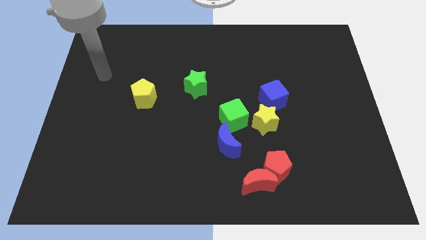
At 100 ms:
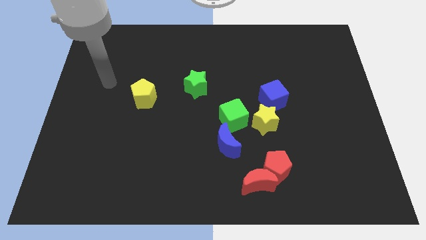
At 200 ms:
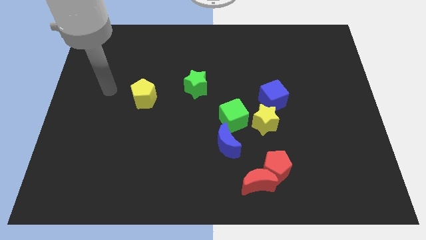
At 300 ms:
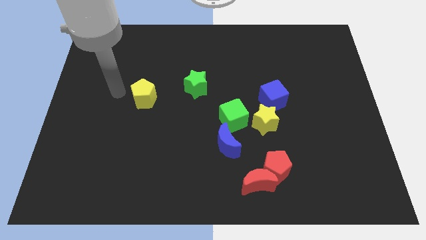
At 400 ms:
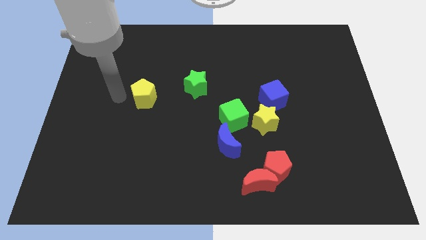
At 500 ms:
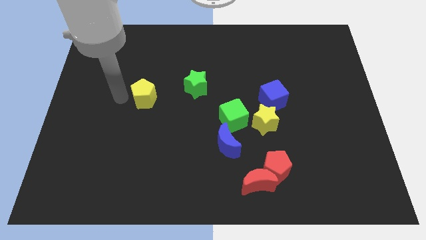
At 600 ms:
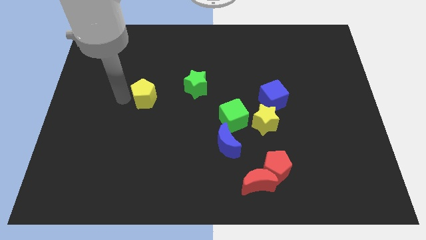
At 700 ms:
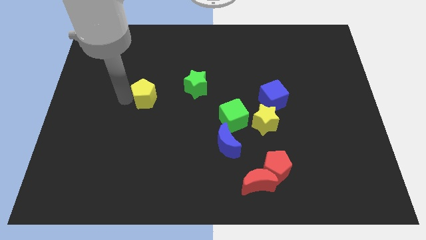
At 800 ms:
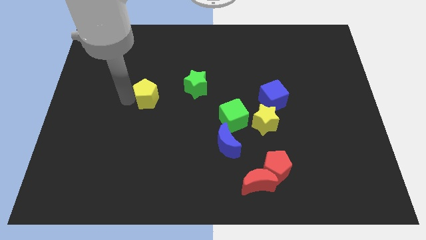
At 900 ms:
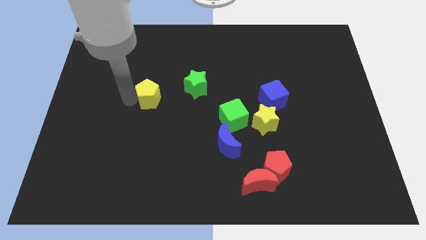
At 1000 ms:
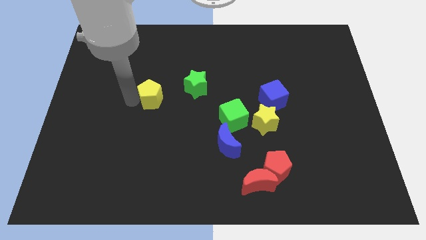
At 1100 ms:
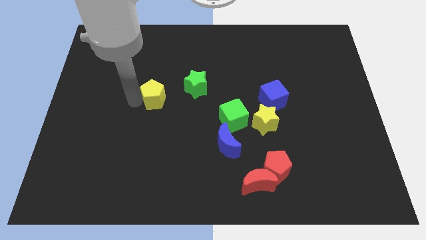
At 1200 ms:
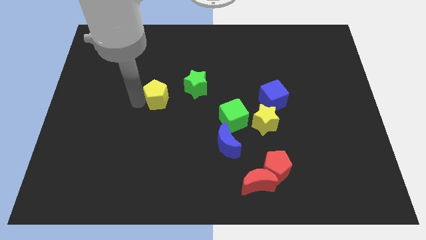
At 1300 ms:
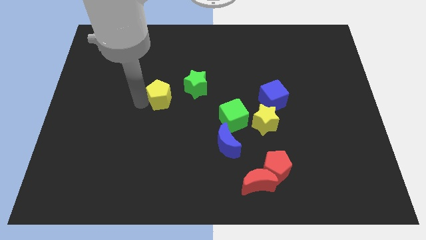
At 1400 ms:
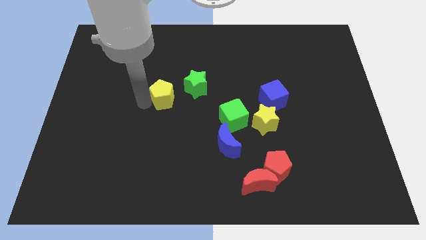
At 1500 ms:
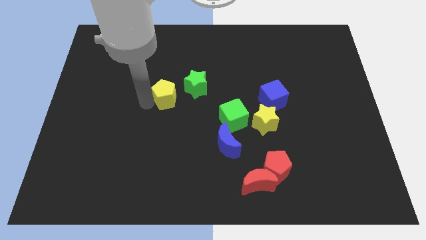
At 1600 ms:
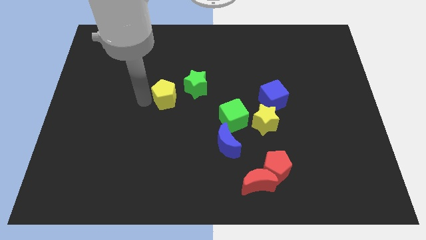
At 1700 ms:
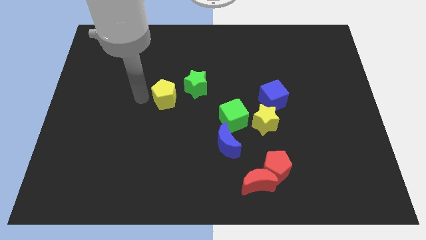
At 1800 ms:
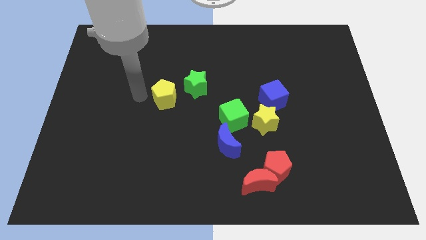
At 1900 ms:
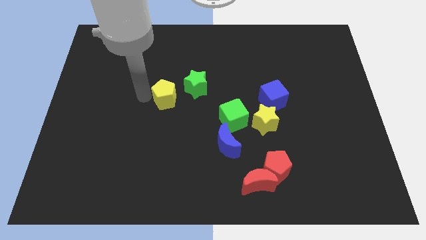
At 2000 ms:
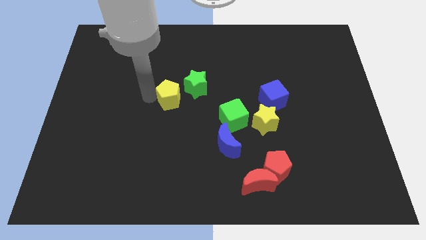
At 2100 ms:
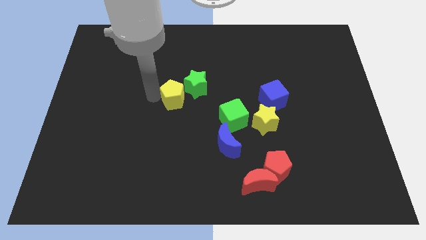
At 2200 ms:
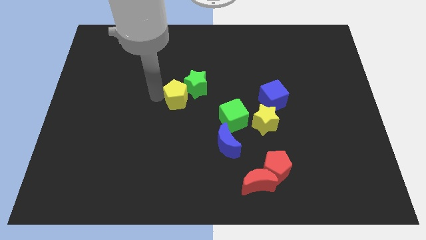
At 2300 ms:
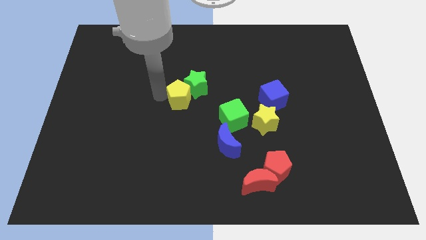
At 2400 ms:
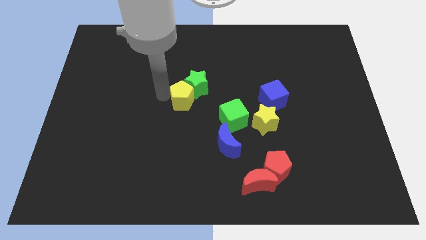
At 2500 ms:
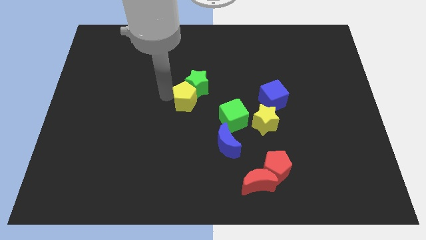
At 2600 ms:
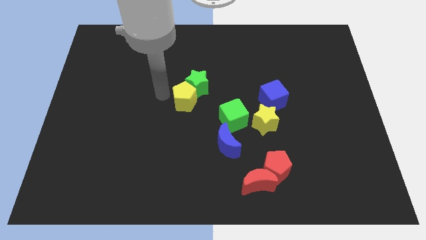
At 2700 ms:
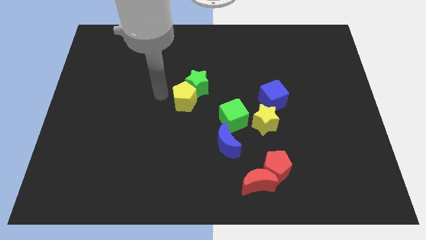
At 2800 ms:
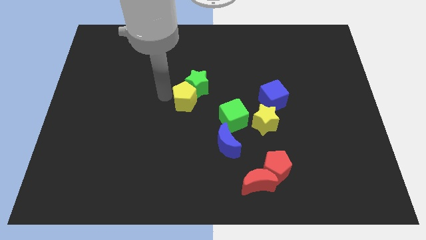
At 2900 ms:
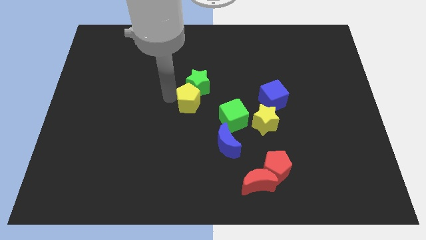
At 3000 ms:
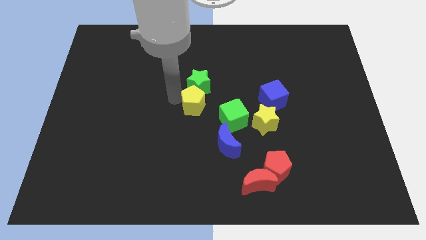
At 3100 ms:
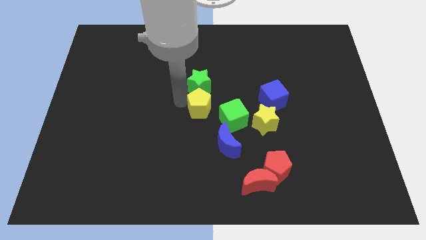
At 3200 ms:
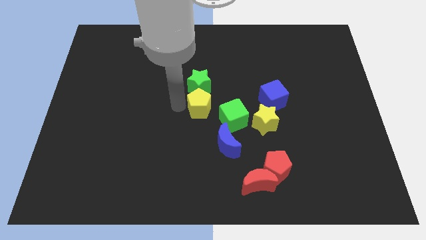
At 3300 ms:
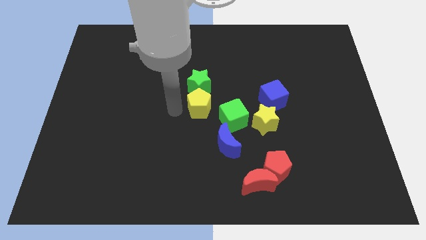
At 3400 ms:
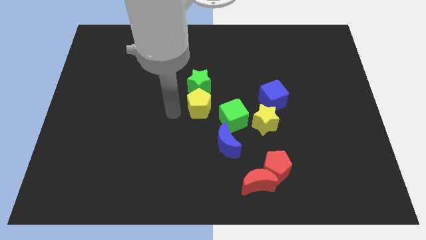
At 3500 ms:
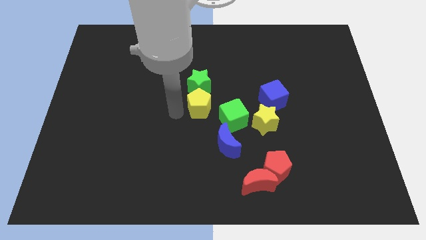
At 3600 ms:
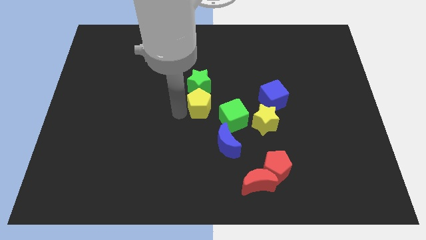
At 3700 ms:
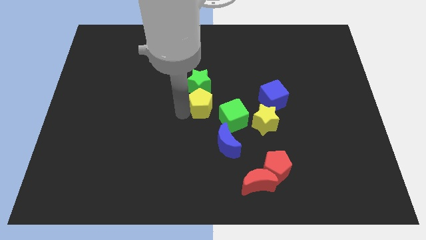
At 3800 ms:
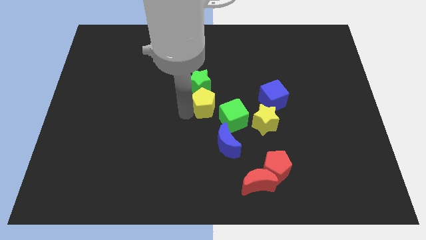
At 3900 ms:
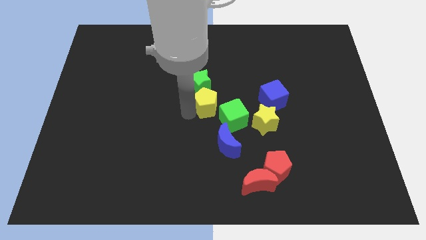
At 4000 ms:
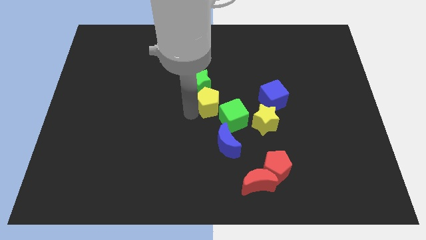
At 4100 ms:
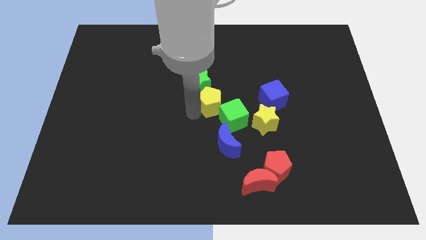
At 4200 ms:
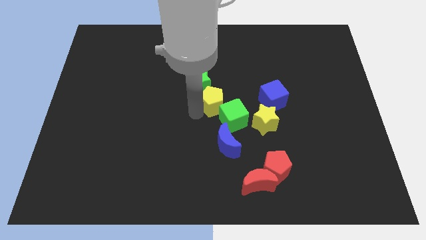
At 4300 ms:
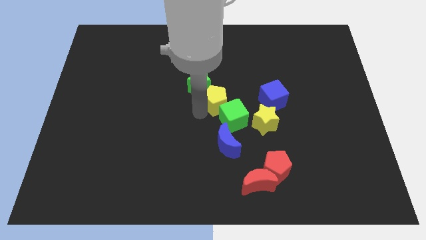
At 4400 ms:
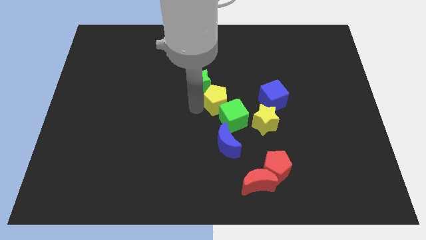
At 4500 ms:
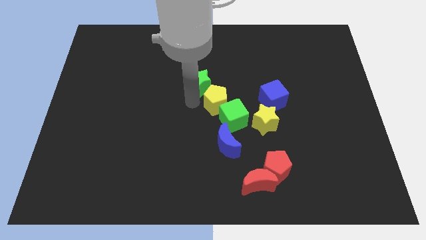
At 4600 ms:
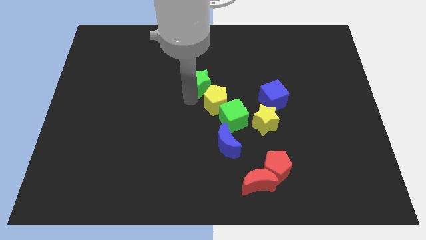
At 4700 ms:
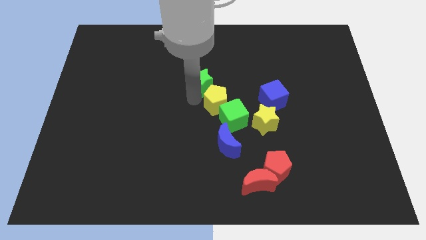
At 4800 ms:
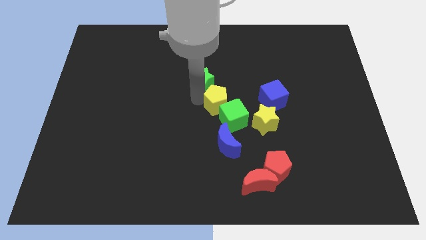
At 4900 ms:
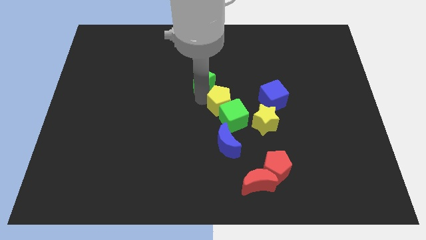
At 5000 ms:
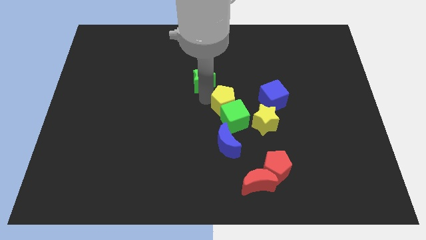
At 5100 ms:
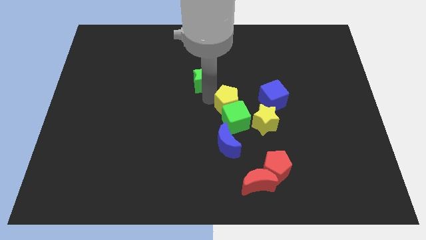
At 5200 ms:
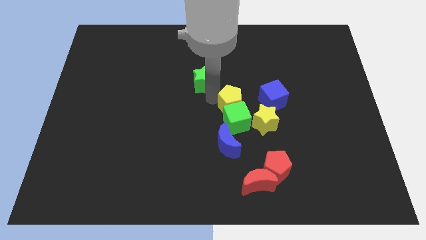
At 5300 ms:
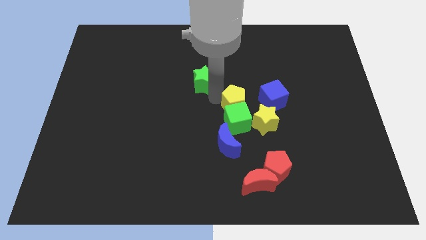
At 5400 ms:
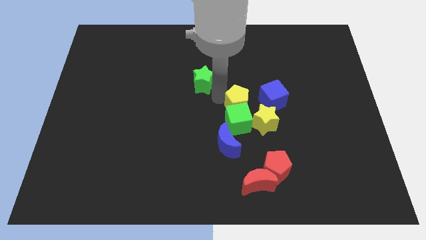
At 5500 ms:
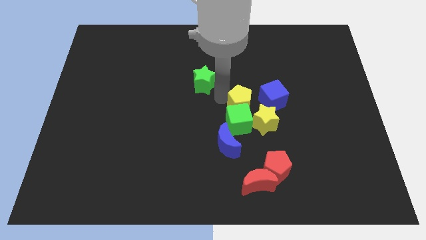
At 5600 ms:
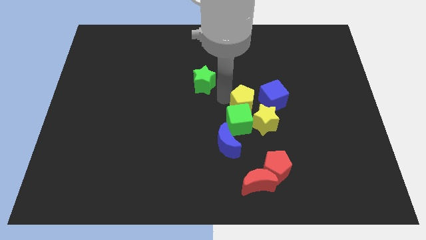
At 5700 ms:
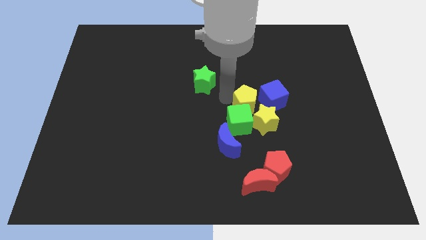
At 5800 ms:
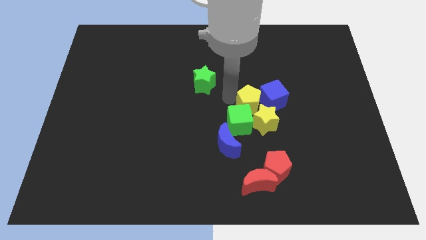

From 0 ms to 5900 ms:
move the yellow pentagon towards the yellow star
